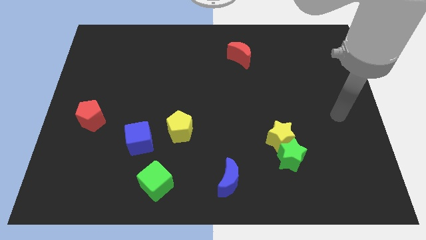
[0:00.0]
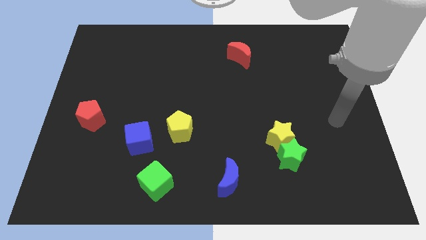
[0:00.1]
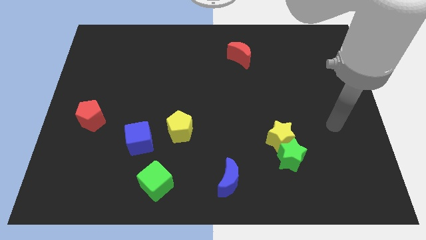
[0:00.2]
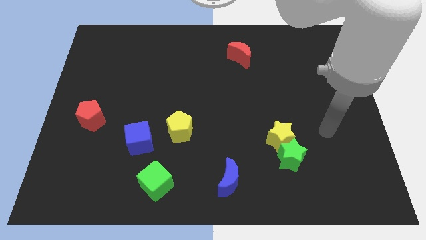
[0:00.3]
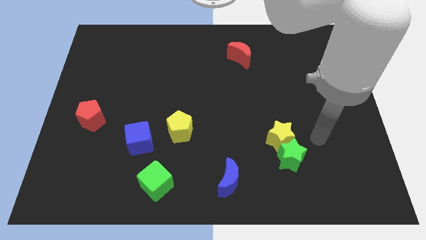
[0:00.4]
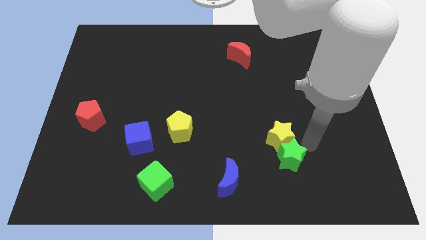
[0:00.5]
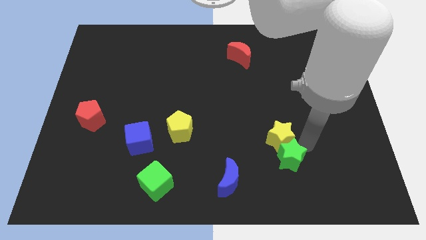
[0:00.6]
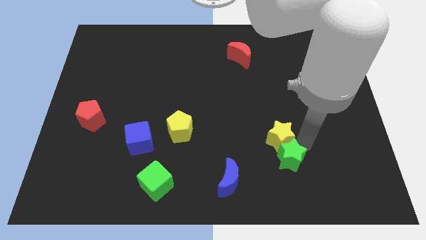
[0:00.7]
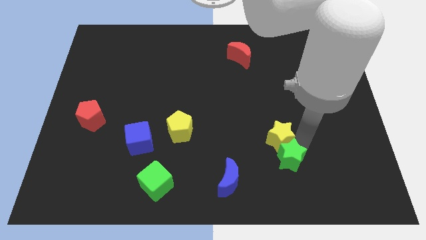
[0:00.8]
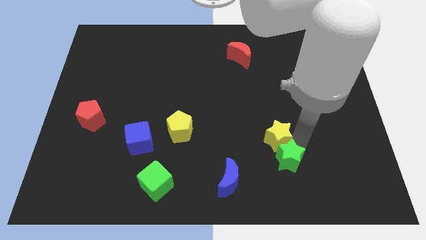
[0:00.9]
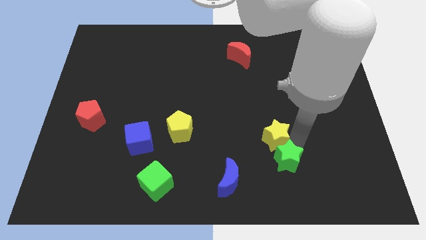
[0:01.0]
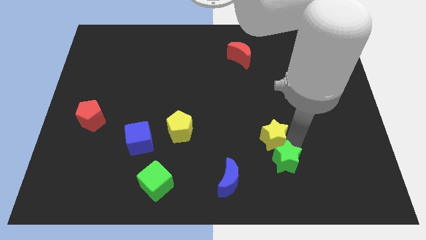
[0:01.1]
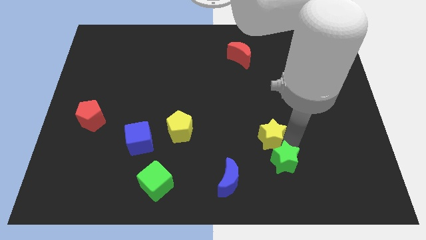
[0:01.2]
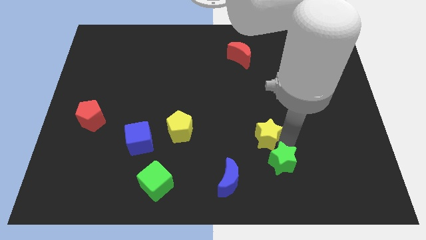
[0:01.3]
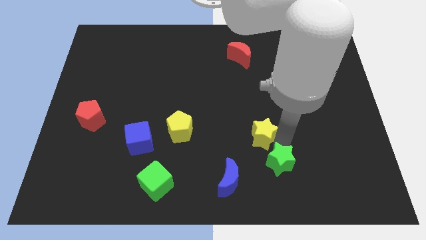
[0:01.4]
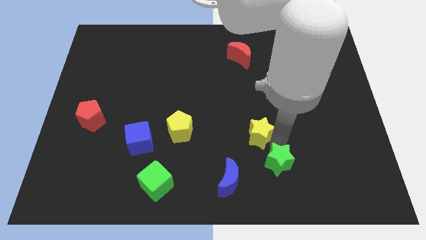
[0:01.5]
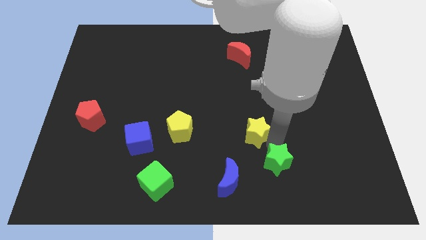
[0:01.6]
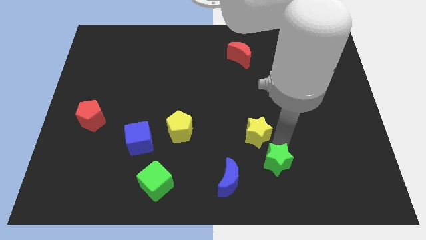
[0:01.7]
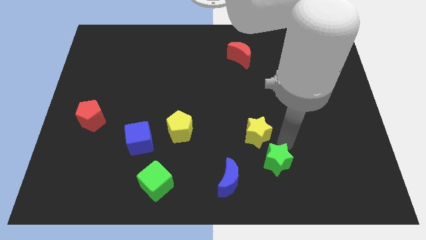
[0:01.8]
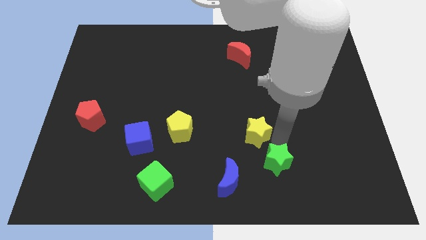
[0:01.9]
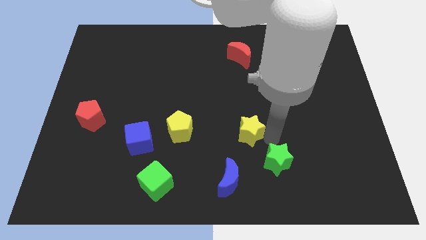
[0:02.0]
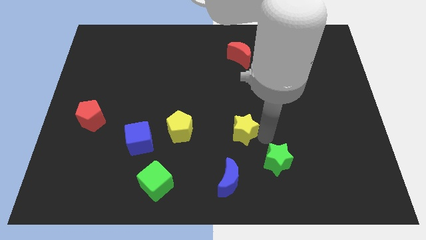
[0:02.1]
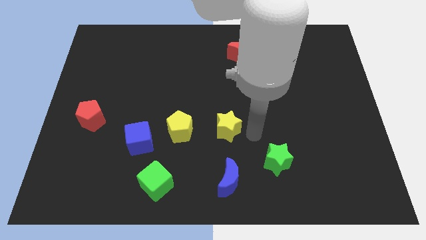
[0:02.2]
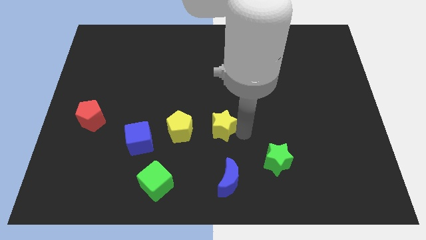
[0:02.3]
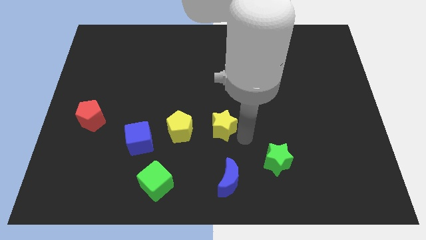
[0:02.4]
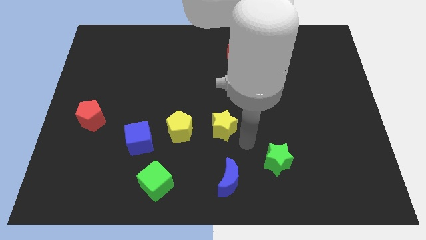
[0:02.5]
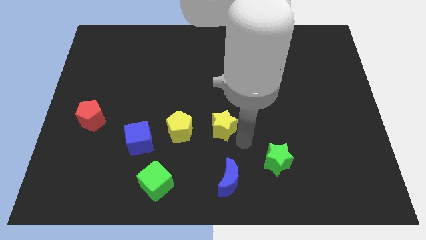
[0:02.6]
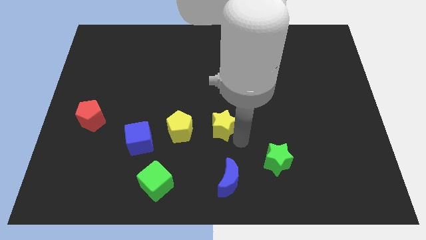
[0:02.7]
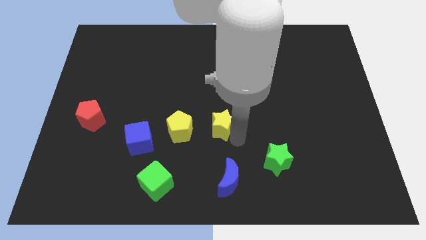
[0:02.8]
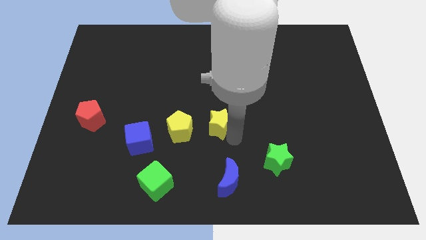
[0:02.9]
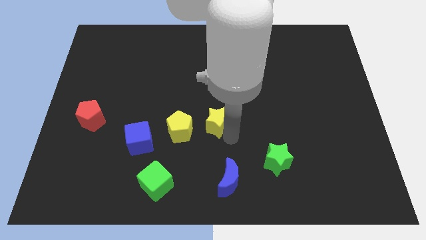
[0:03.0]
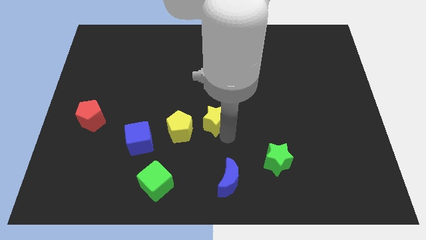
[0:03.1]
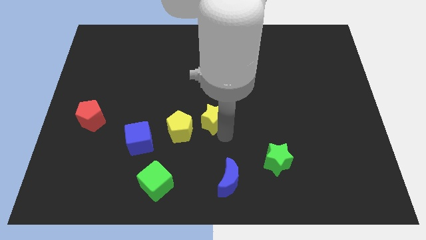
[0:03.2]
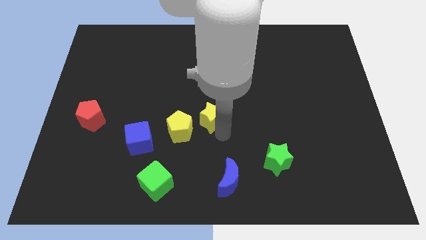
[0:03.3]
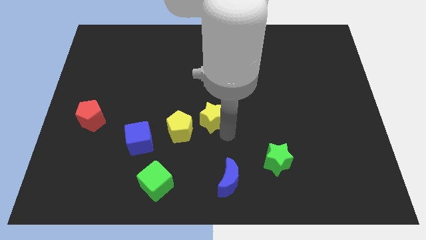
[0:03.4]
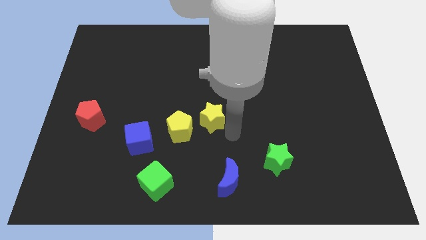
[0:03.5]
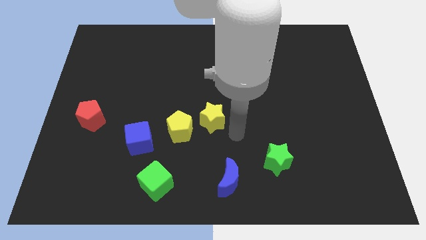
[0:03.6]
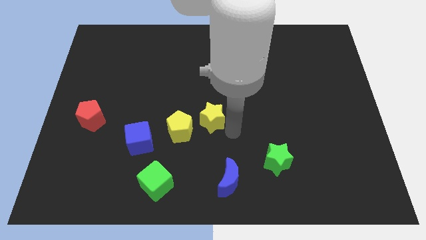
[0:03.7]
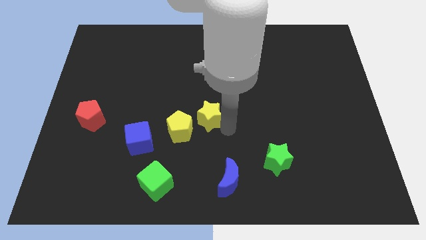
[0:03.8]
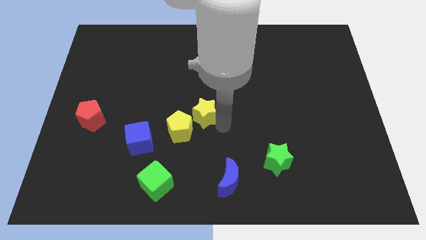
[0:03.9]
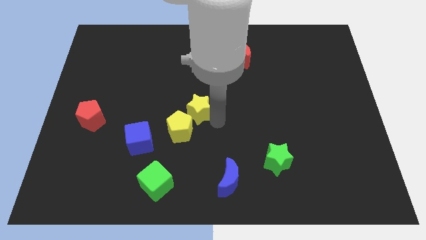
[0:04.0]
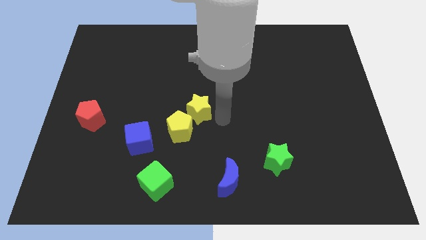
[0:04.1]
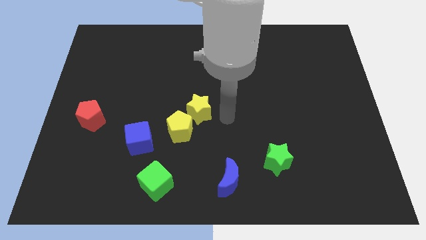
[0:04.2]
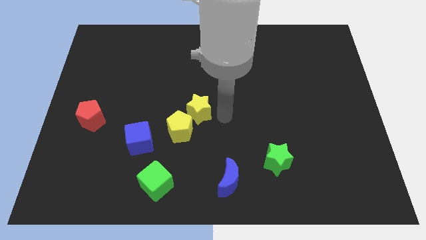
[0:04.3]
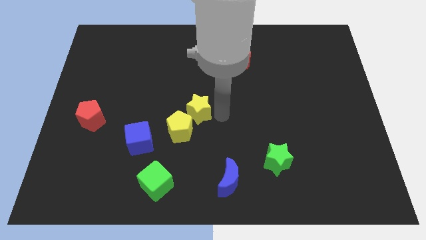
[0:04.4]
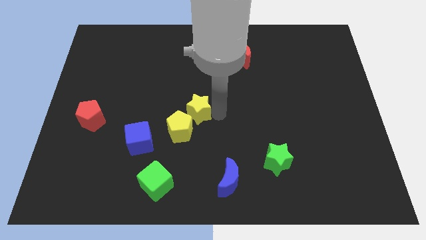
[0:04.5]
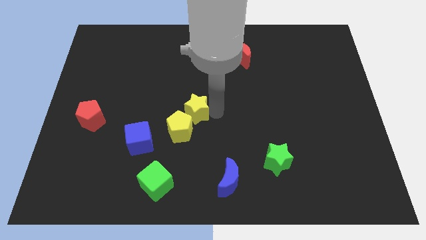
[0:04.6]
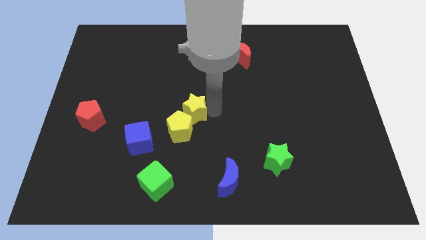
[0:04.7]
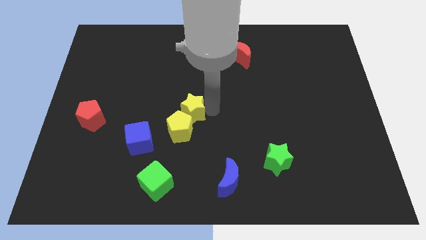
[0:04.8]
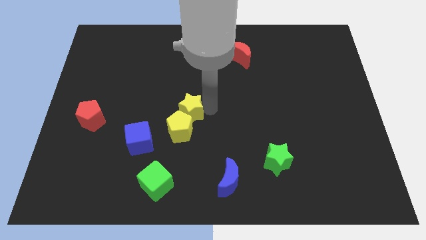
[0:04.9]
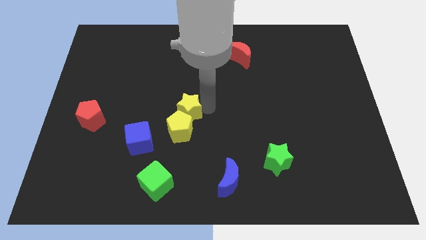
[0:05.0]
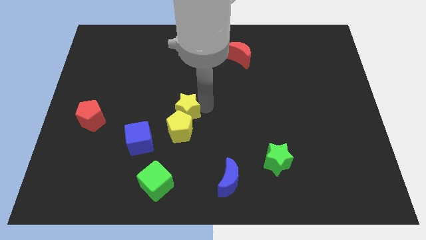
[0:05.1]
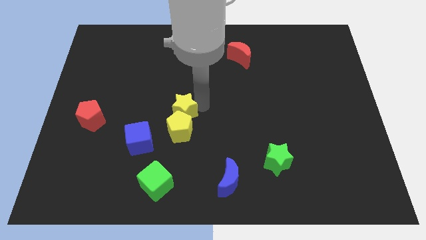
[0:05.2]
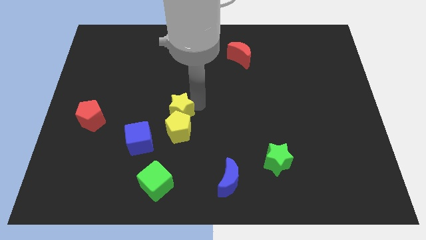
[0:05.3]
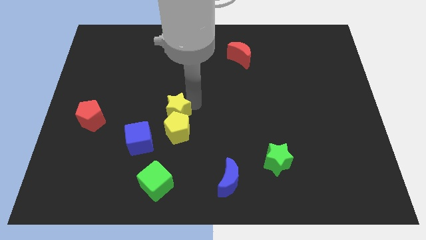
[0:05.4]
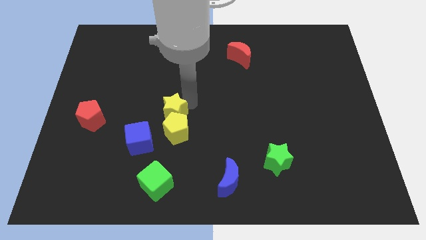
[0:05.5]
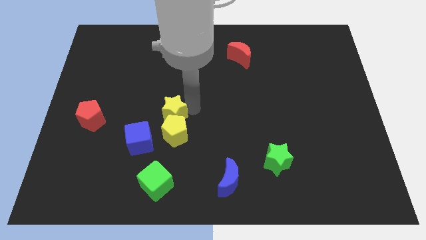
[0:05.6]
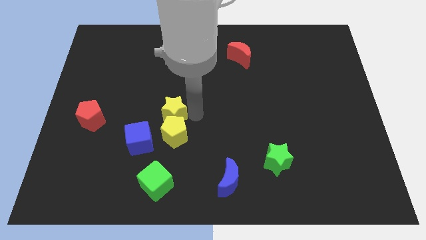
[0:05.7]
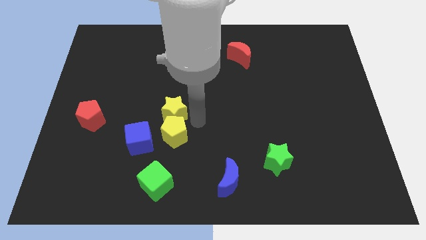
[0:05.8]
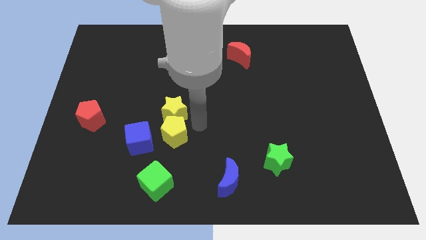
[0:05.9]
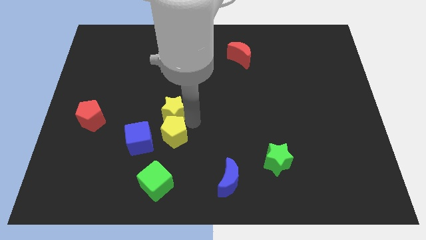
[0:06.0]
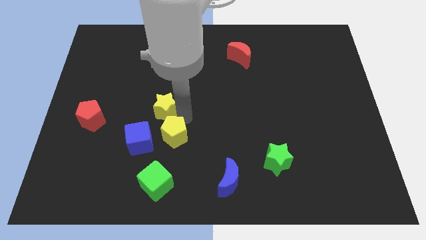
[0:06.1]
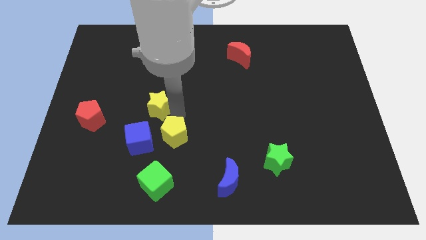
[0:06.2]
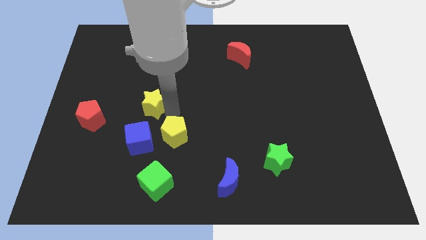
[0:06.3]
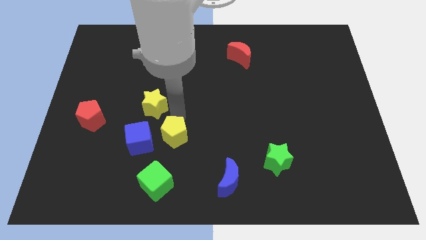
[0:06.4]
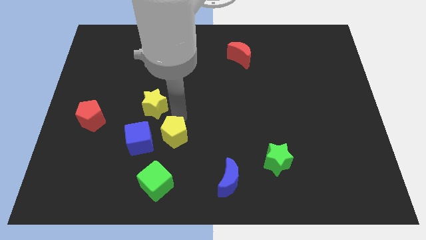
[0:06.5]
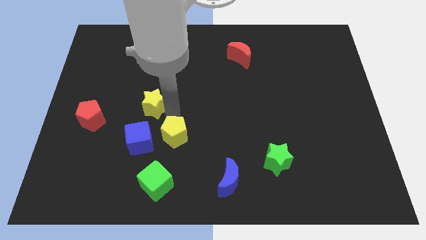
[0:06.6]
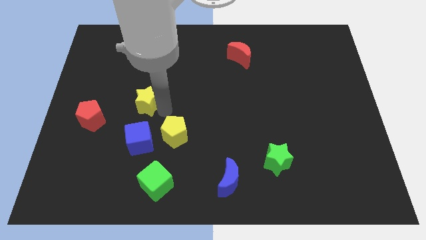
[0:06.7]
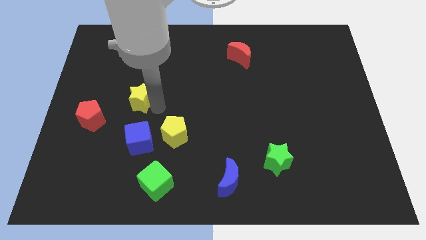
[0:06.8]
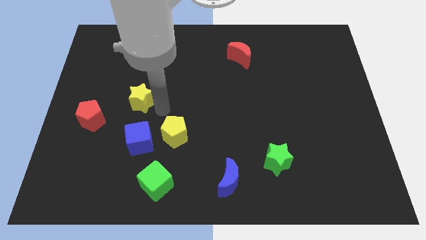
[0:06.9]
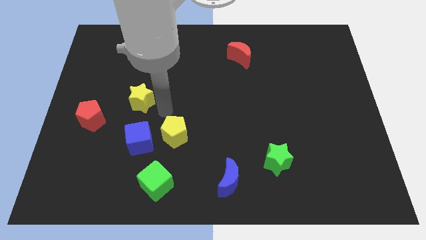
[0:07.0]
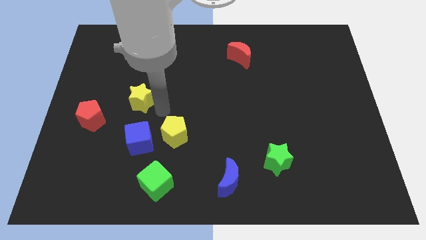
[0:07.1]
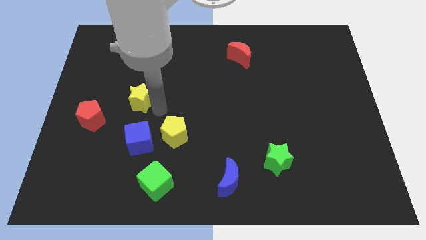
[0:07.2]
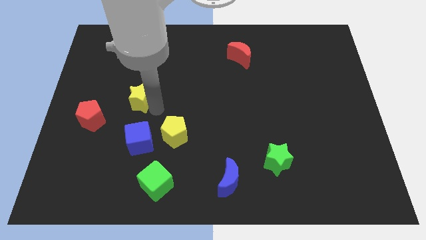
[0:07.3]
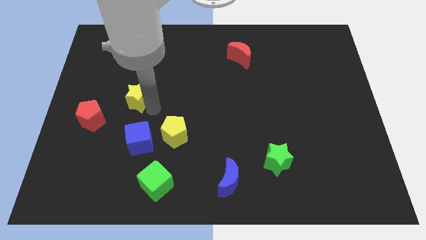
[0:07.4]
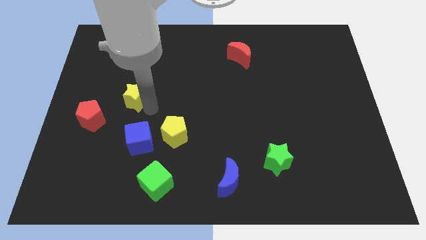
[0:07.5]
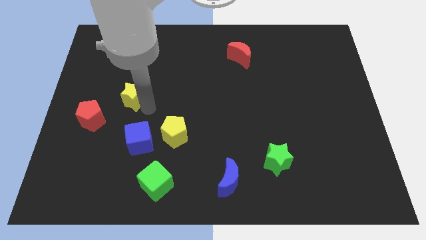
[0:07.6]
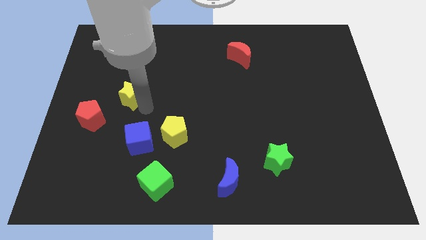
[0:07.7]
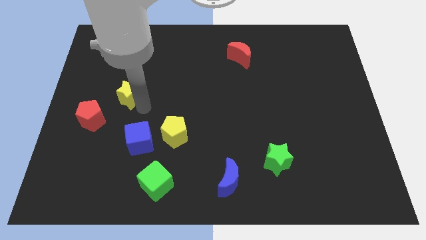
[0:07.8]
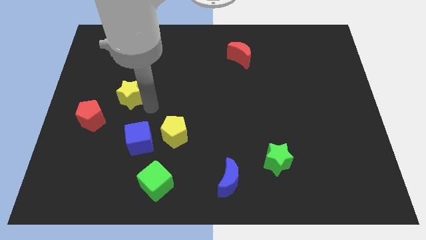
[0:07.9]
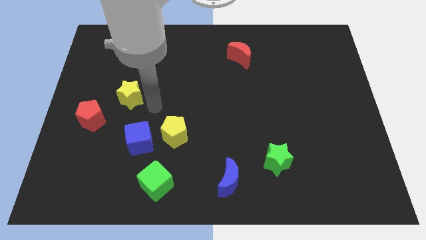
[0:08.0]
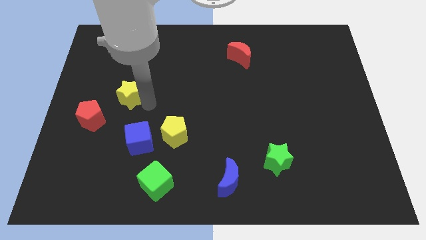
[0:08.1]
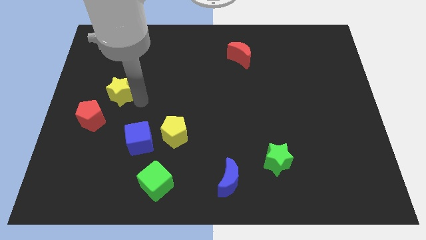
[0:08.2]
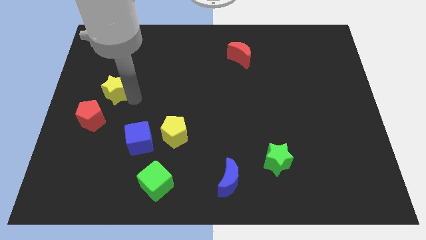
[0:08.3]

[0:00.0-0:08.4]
slide the yellow star to the top of the red pentagon
